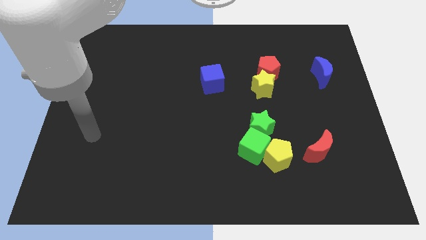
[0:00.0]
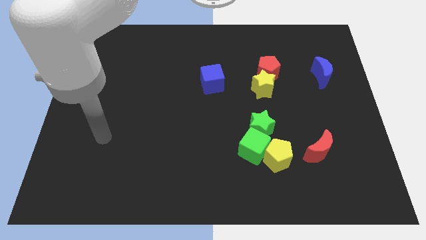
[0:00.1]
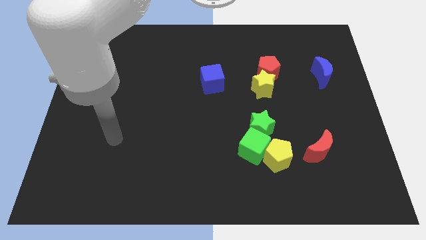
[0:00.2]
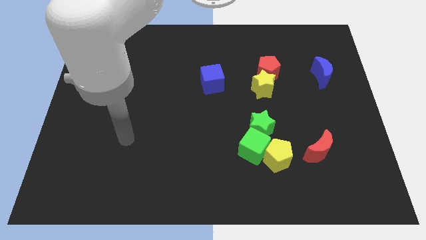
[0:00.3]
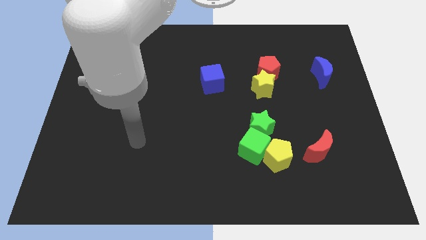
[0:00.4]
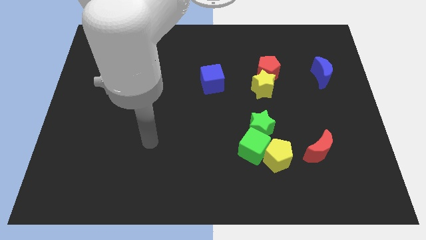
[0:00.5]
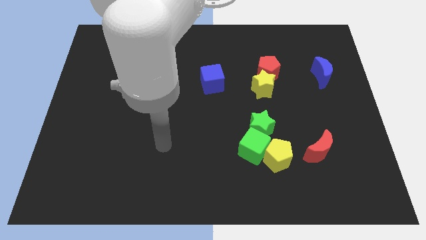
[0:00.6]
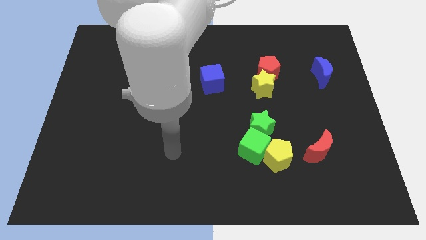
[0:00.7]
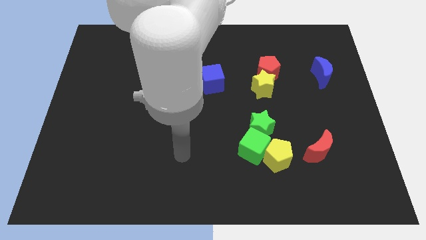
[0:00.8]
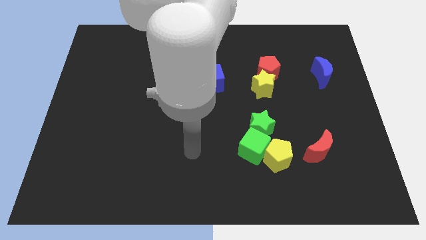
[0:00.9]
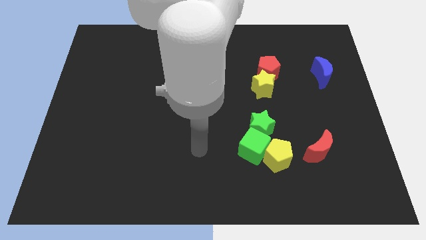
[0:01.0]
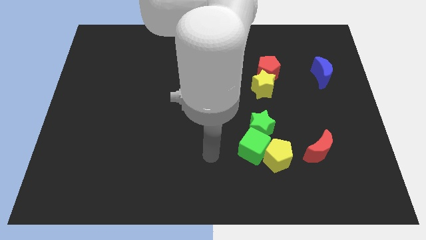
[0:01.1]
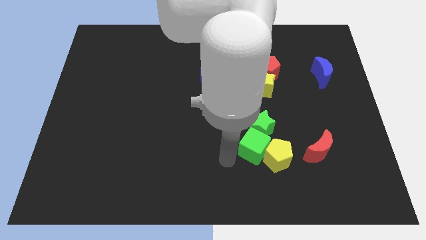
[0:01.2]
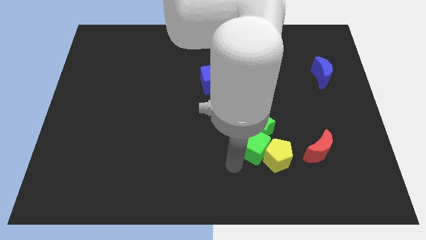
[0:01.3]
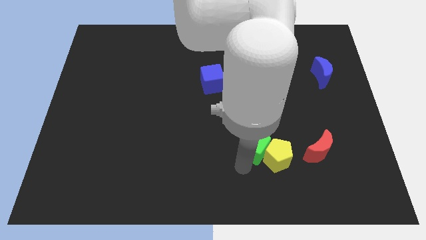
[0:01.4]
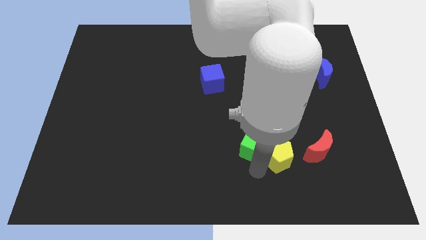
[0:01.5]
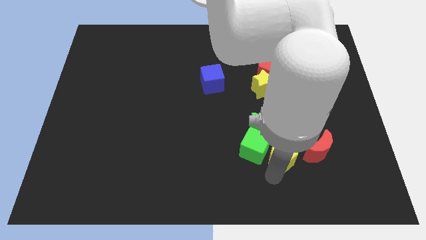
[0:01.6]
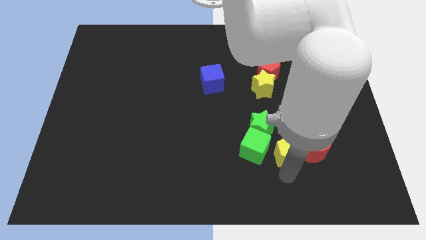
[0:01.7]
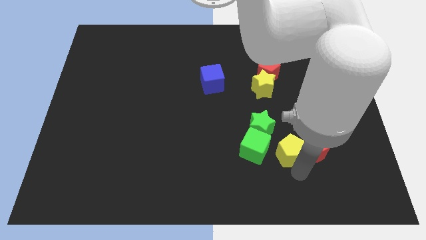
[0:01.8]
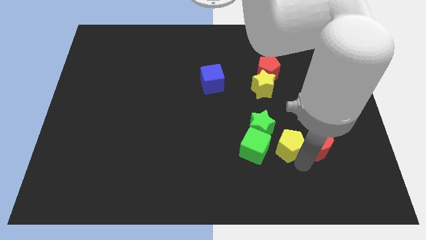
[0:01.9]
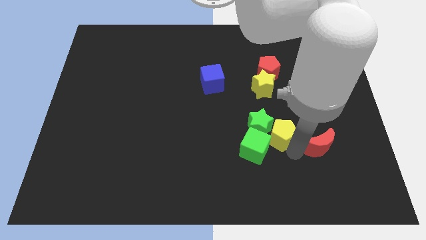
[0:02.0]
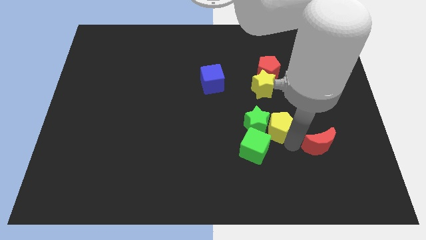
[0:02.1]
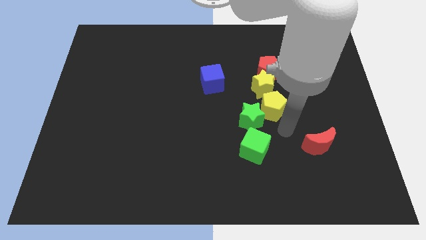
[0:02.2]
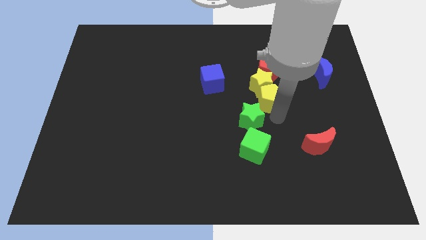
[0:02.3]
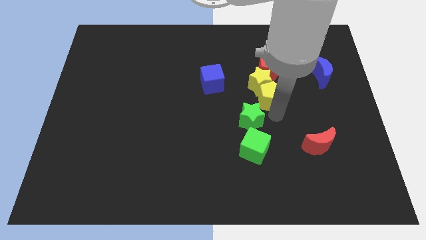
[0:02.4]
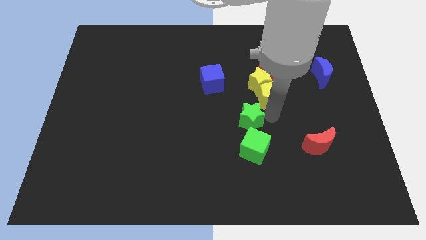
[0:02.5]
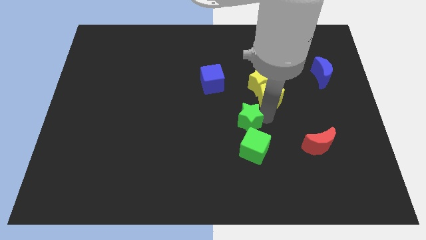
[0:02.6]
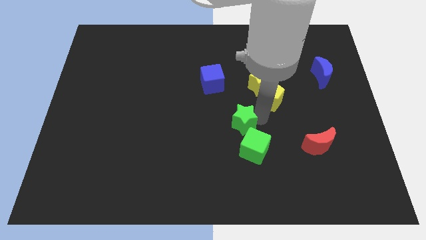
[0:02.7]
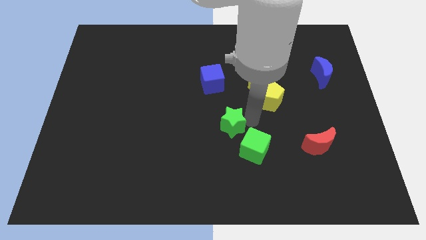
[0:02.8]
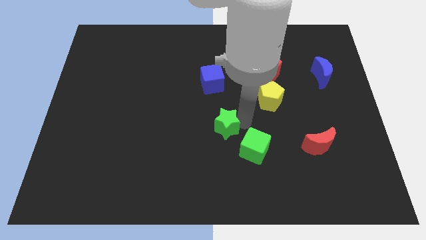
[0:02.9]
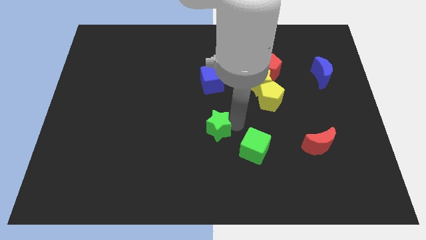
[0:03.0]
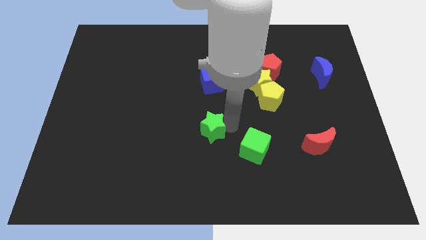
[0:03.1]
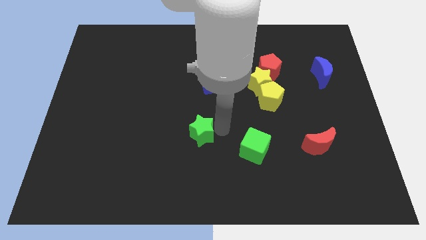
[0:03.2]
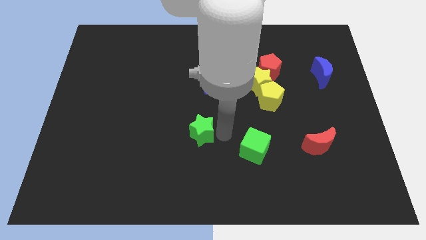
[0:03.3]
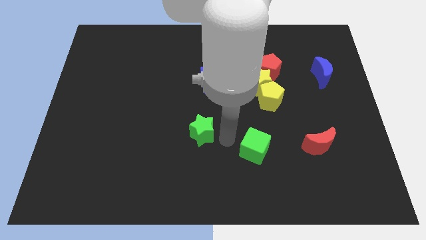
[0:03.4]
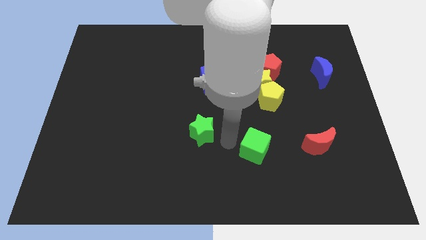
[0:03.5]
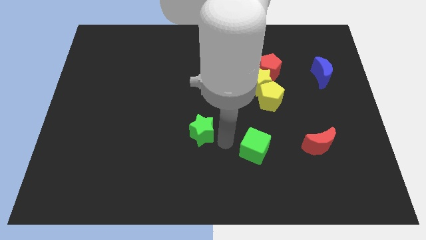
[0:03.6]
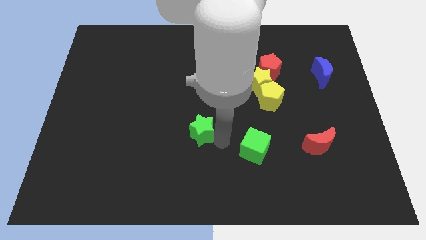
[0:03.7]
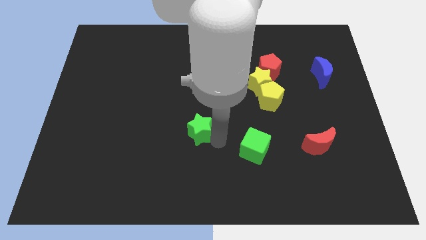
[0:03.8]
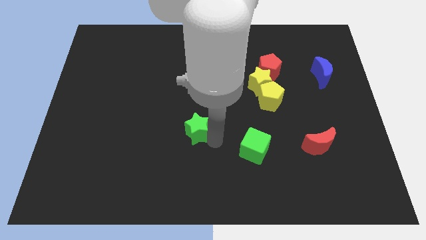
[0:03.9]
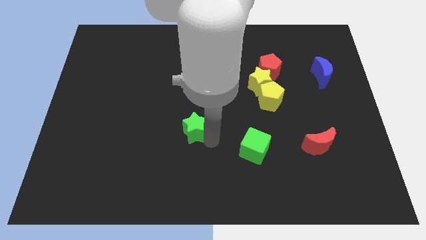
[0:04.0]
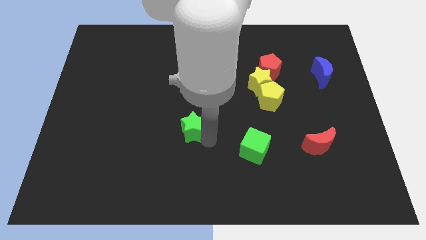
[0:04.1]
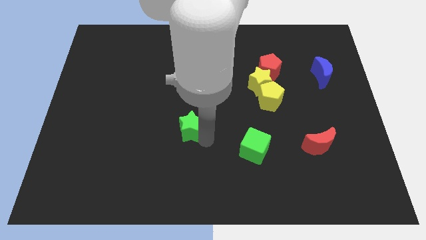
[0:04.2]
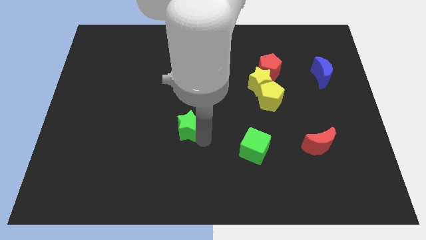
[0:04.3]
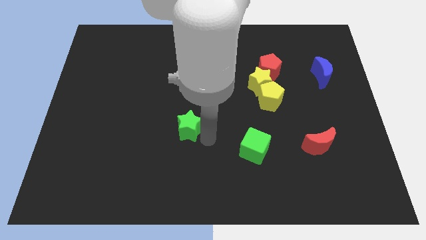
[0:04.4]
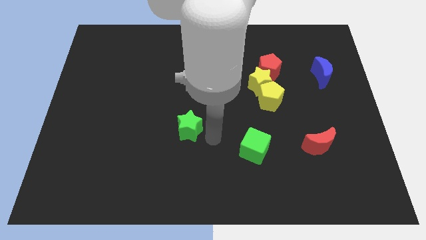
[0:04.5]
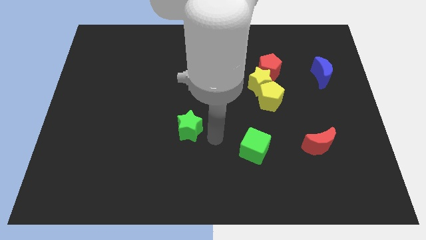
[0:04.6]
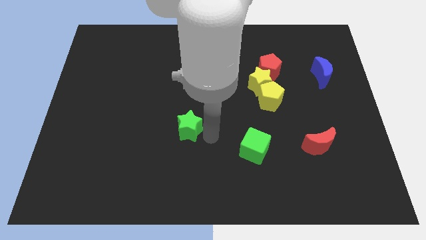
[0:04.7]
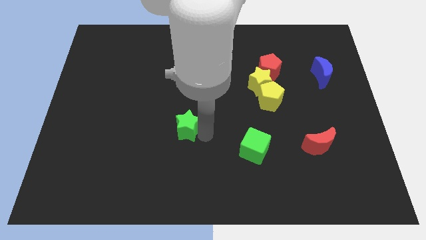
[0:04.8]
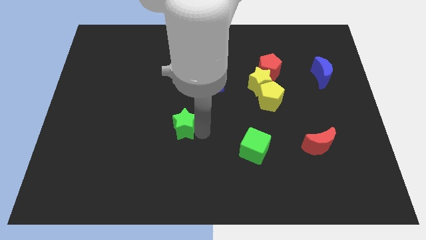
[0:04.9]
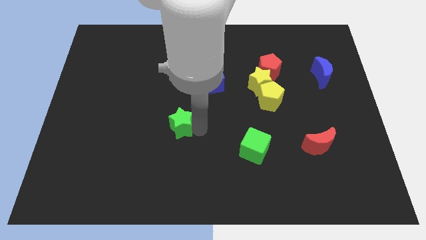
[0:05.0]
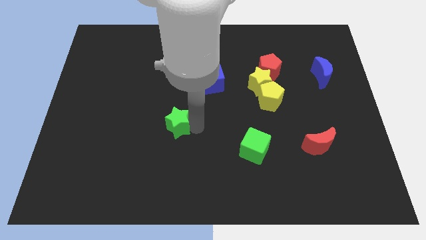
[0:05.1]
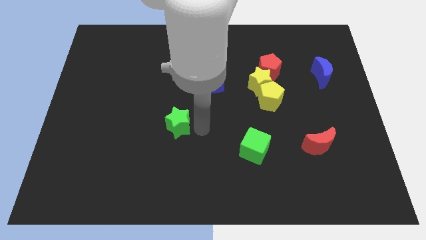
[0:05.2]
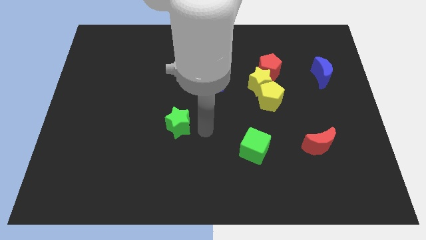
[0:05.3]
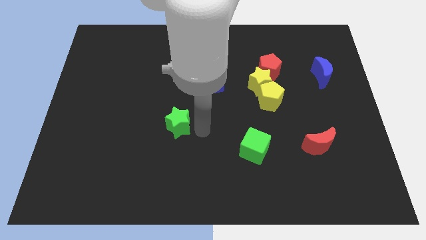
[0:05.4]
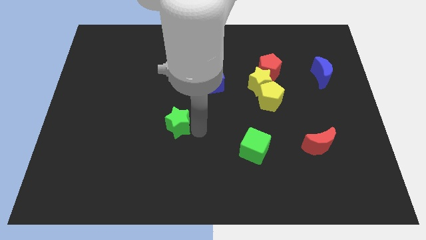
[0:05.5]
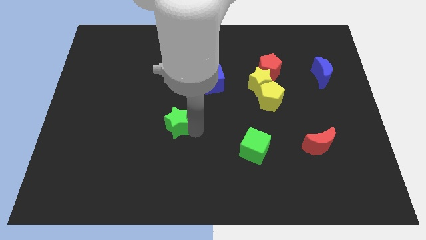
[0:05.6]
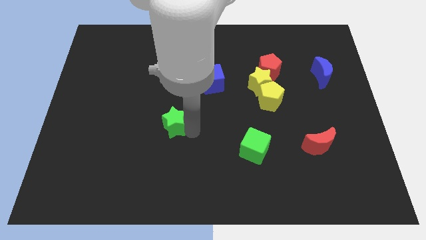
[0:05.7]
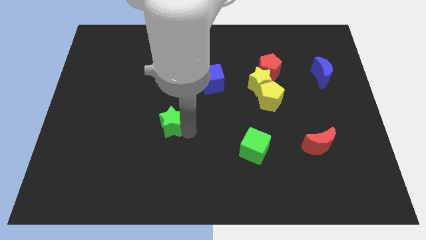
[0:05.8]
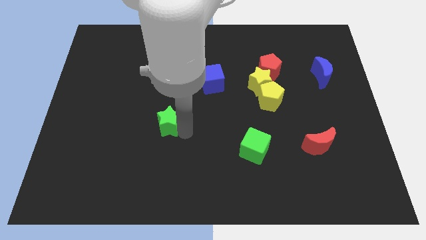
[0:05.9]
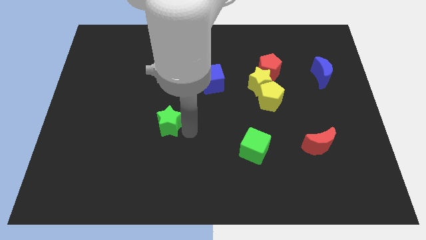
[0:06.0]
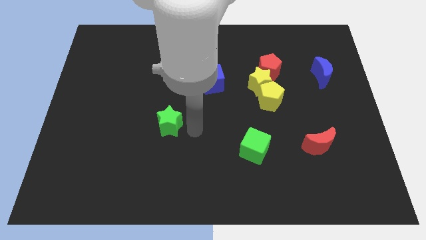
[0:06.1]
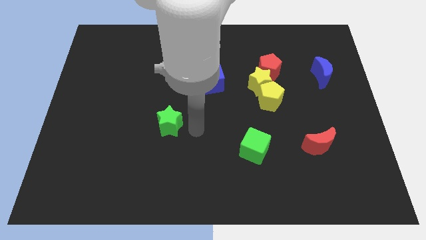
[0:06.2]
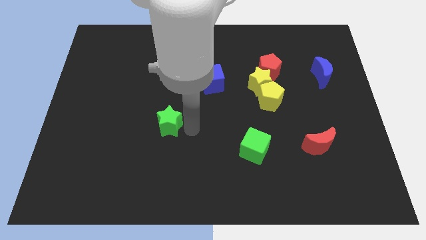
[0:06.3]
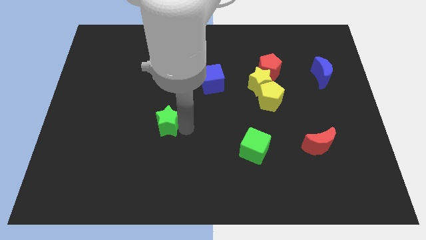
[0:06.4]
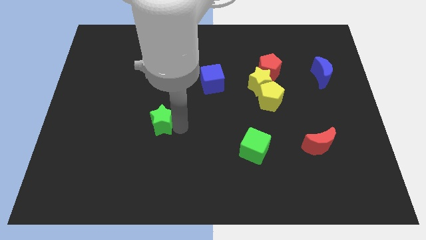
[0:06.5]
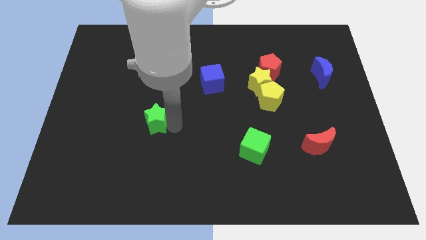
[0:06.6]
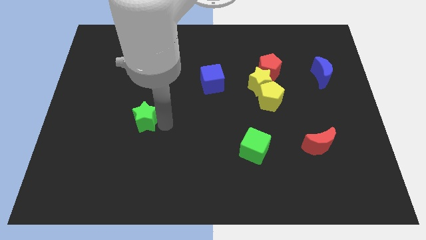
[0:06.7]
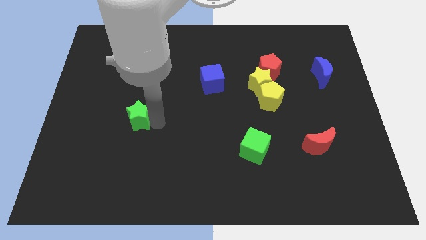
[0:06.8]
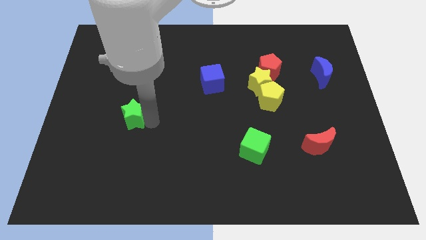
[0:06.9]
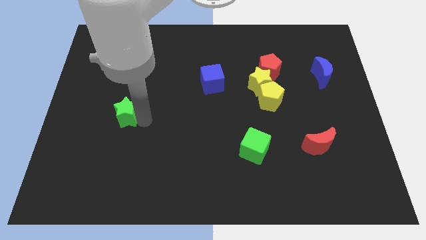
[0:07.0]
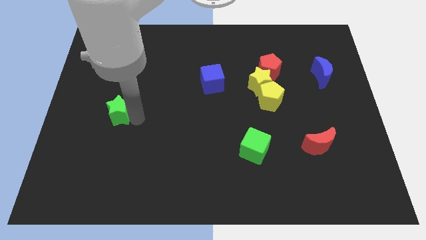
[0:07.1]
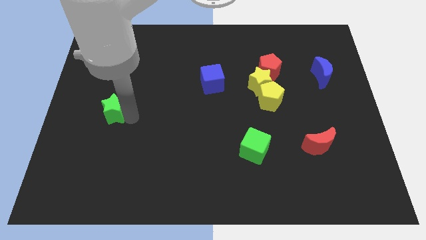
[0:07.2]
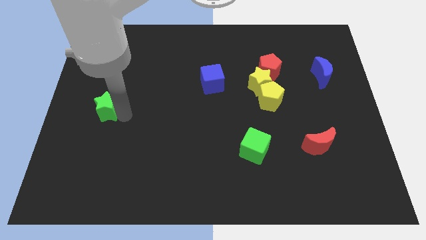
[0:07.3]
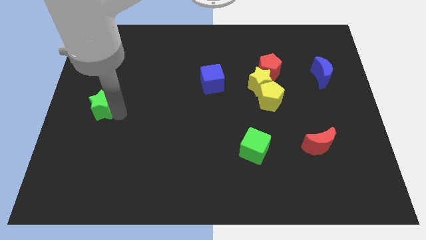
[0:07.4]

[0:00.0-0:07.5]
put the green star to the center left
